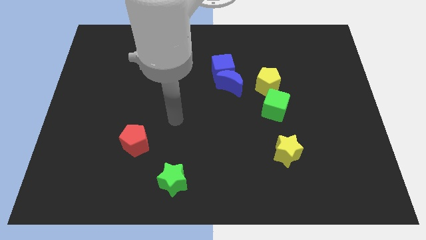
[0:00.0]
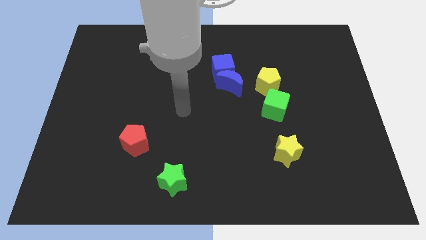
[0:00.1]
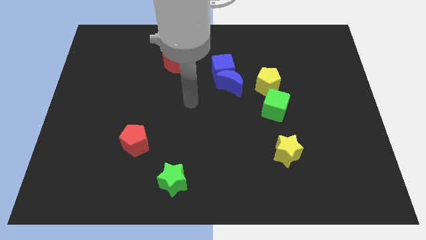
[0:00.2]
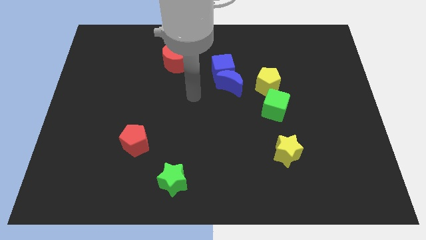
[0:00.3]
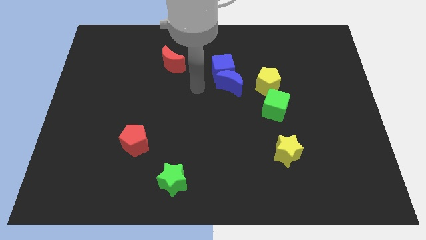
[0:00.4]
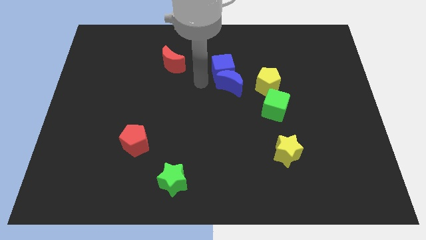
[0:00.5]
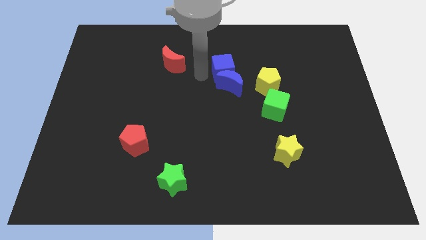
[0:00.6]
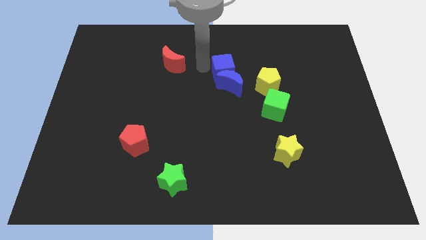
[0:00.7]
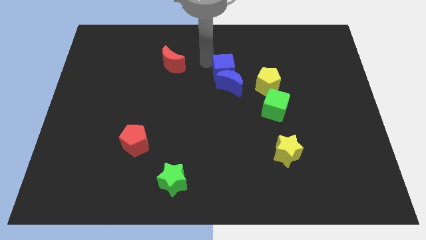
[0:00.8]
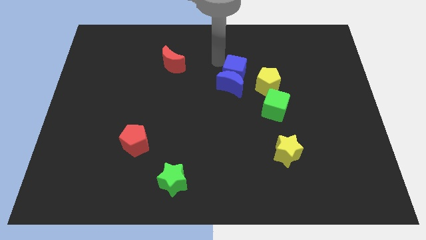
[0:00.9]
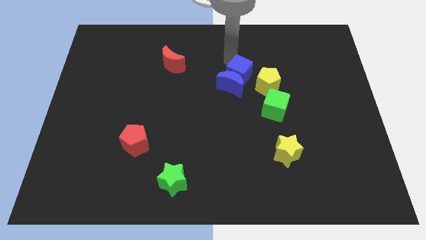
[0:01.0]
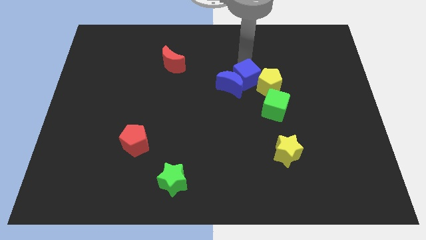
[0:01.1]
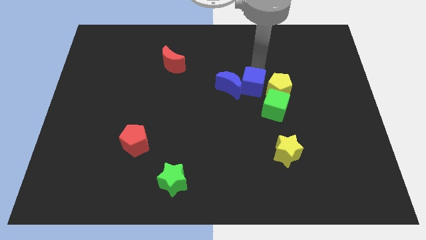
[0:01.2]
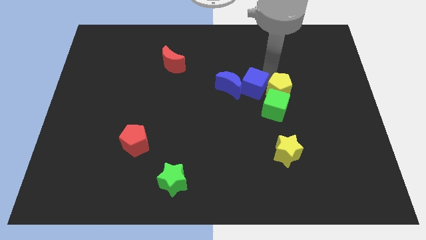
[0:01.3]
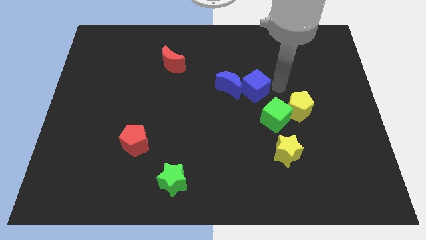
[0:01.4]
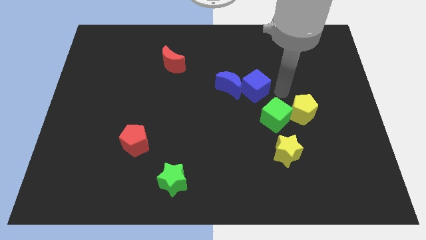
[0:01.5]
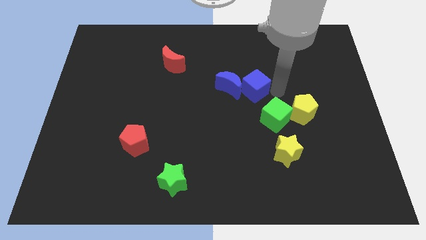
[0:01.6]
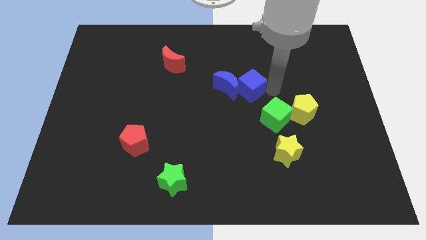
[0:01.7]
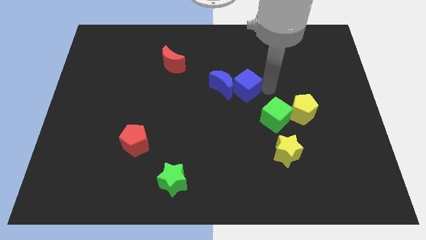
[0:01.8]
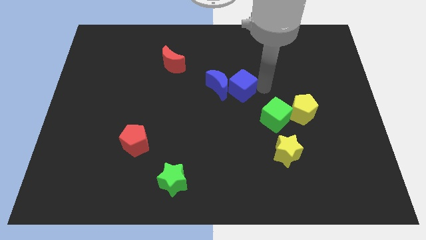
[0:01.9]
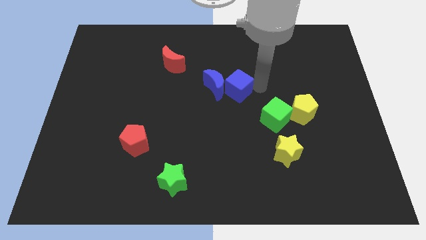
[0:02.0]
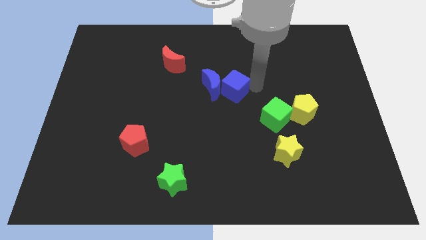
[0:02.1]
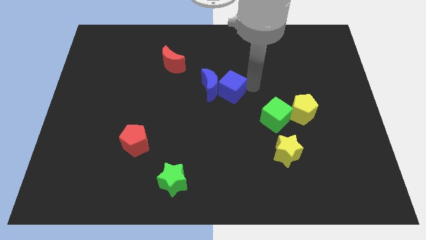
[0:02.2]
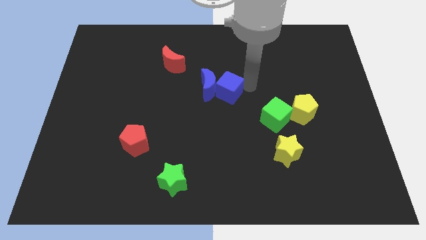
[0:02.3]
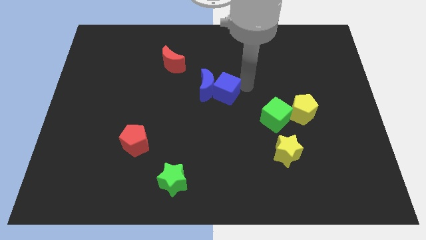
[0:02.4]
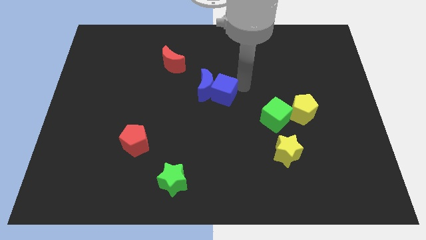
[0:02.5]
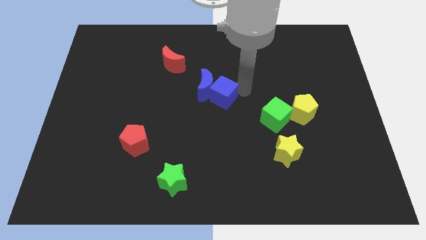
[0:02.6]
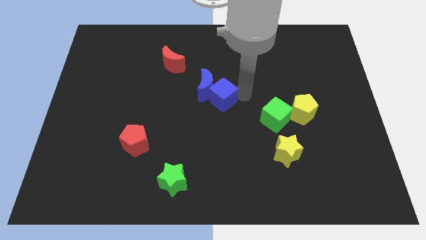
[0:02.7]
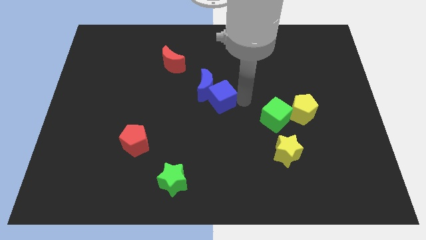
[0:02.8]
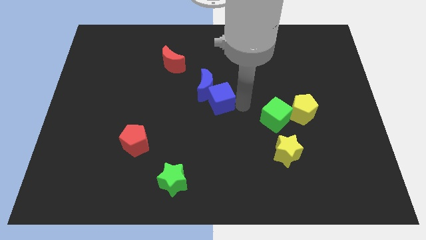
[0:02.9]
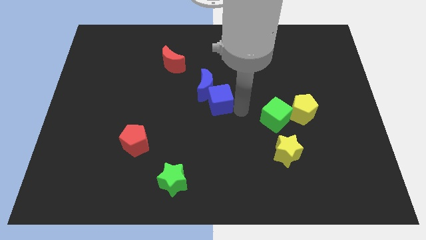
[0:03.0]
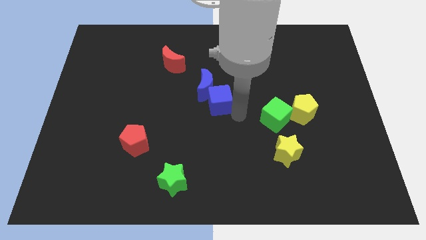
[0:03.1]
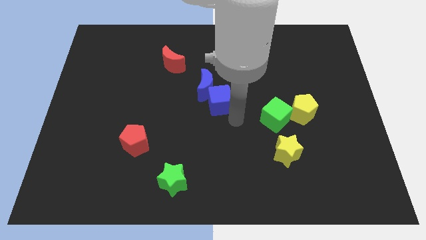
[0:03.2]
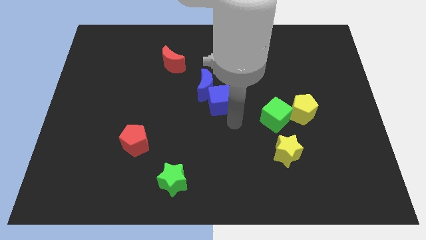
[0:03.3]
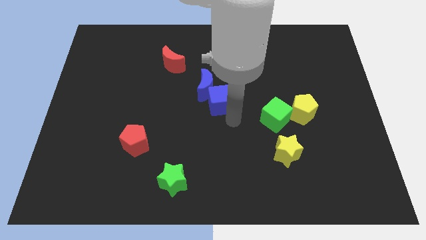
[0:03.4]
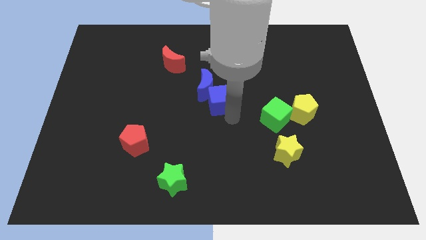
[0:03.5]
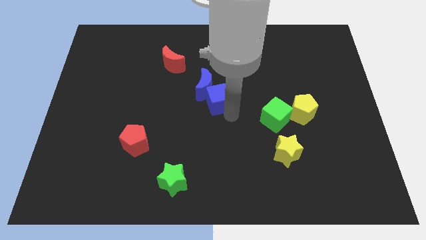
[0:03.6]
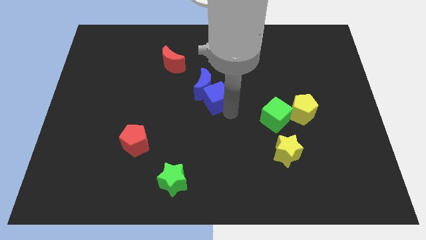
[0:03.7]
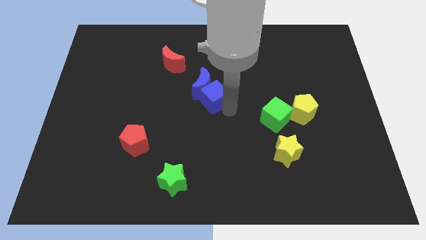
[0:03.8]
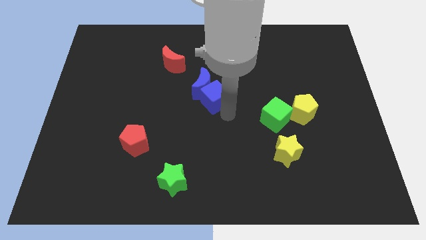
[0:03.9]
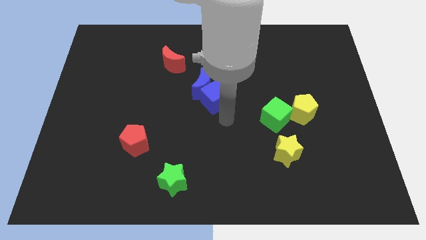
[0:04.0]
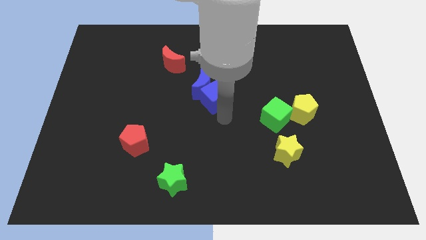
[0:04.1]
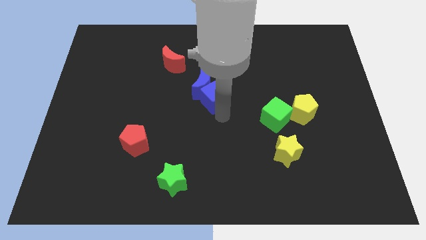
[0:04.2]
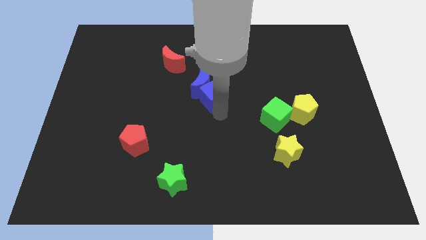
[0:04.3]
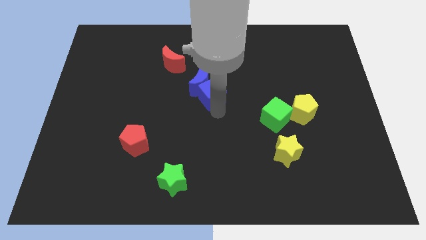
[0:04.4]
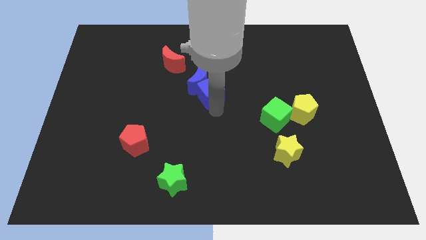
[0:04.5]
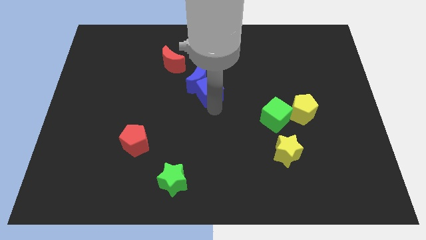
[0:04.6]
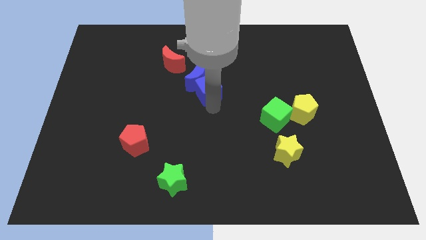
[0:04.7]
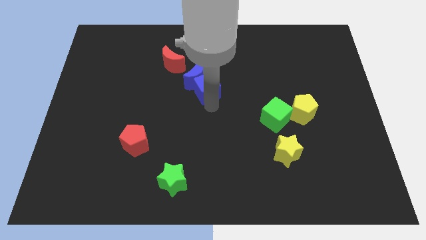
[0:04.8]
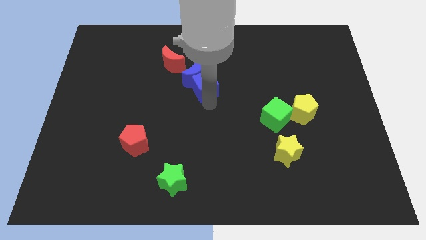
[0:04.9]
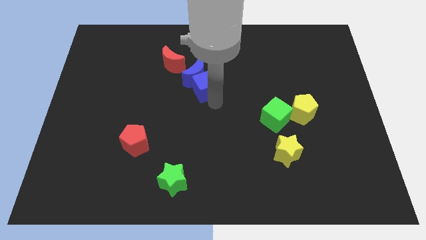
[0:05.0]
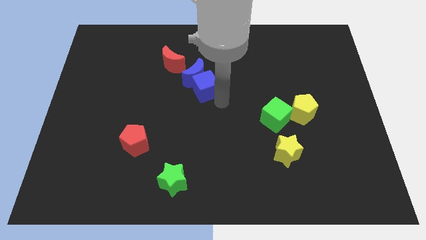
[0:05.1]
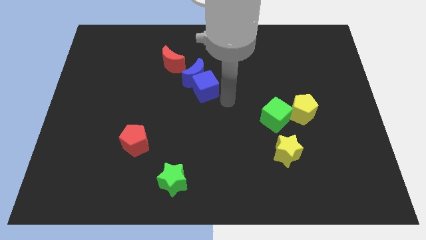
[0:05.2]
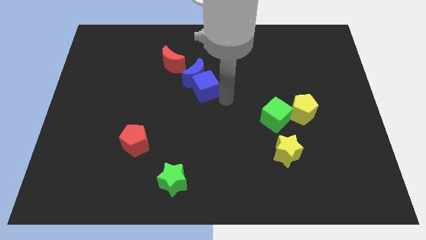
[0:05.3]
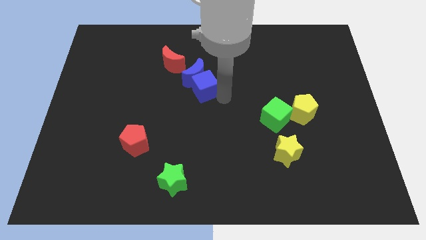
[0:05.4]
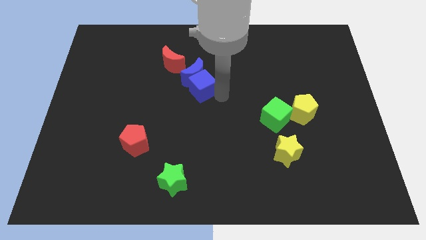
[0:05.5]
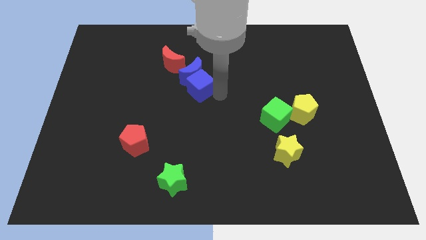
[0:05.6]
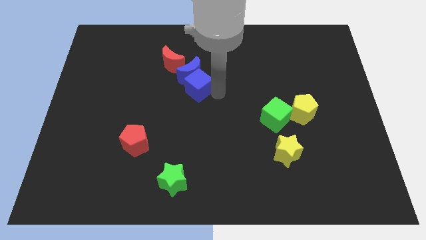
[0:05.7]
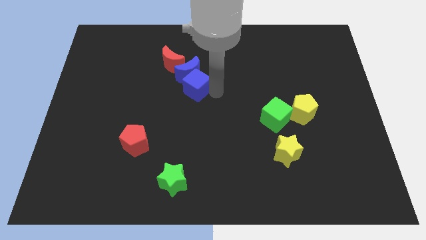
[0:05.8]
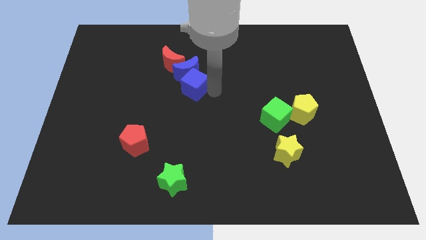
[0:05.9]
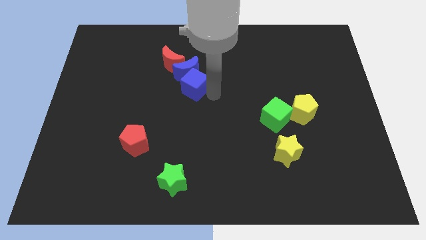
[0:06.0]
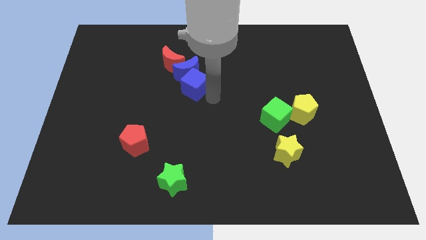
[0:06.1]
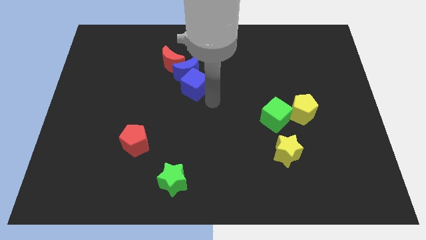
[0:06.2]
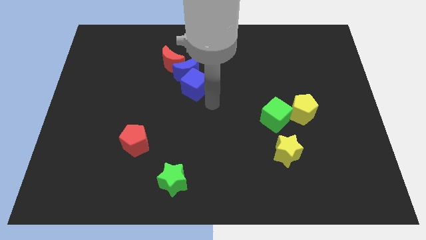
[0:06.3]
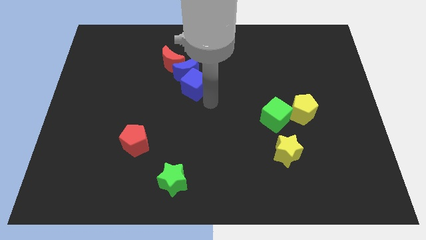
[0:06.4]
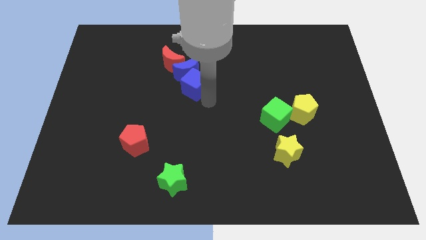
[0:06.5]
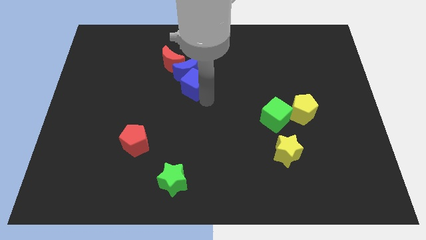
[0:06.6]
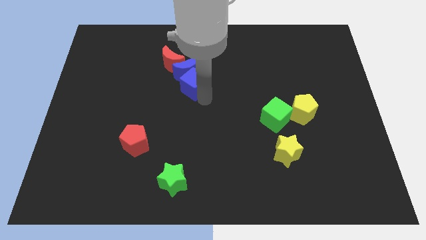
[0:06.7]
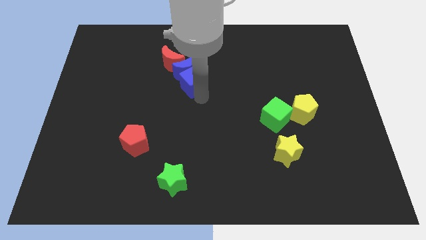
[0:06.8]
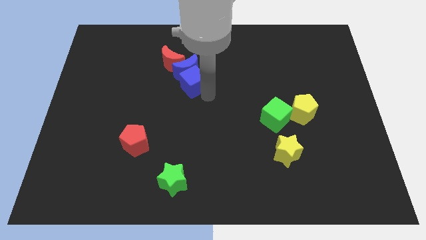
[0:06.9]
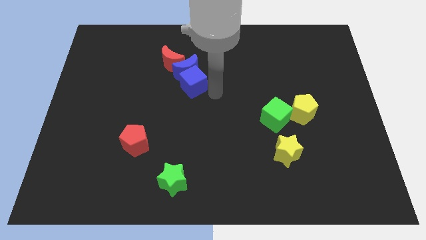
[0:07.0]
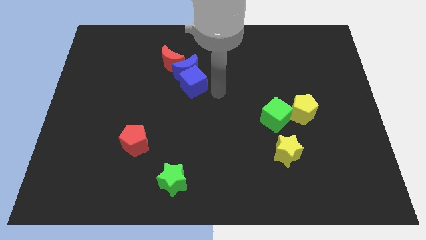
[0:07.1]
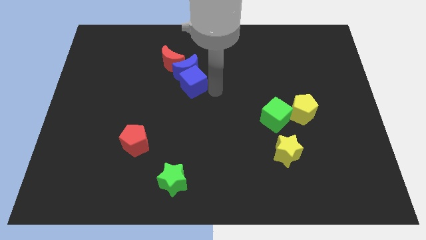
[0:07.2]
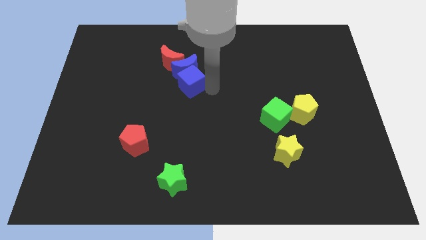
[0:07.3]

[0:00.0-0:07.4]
slightly slide the blue cube to the left

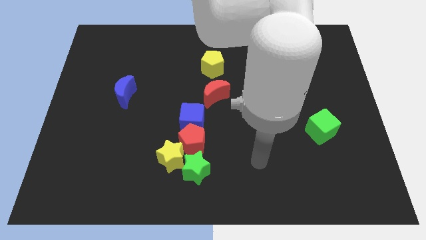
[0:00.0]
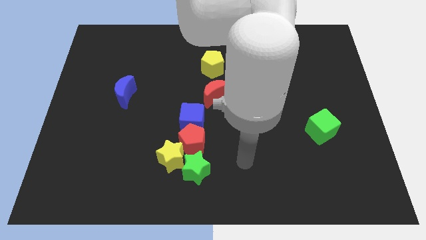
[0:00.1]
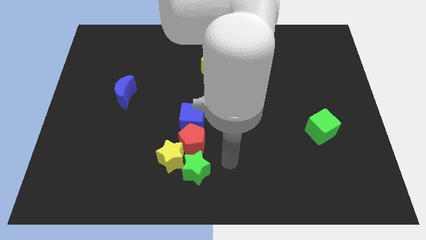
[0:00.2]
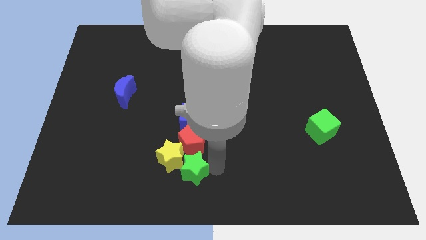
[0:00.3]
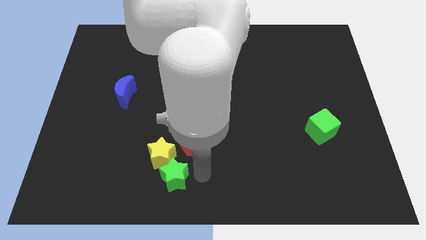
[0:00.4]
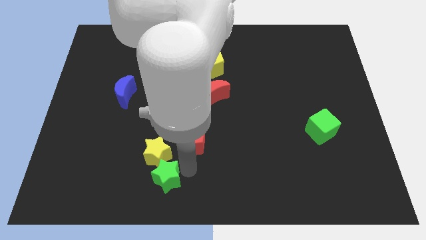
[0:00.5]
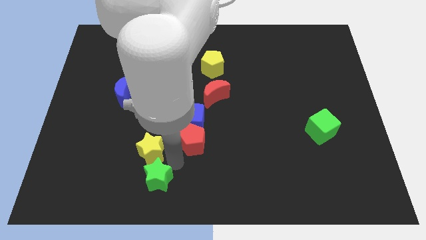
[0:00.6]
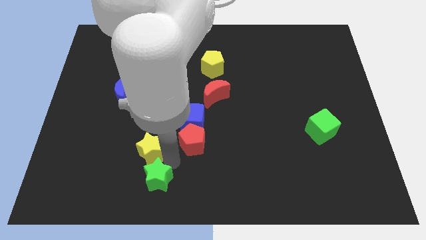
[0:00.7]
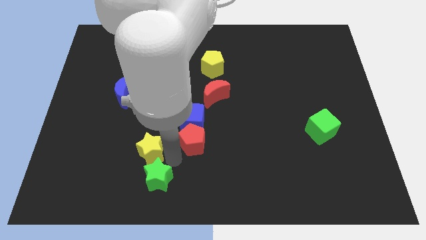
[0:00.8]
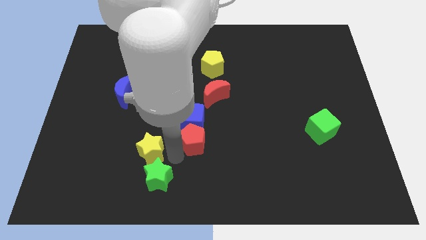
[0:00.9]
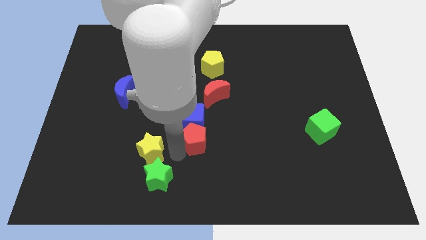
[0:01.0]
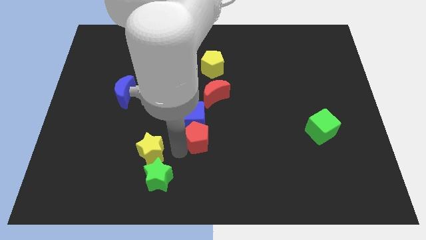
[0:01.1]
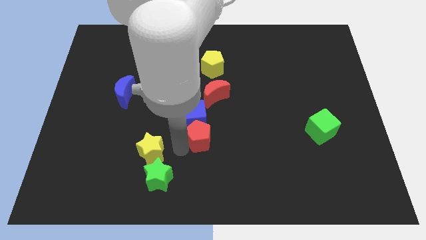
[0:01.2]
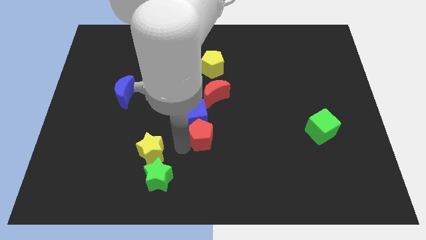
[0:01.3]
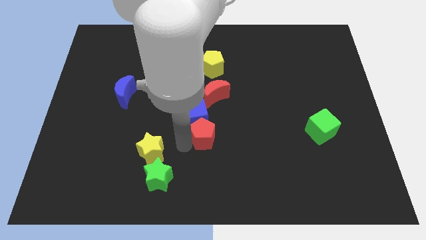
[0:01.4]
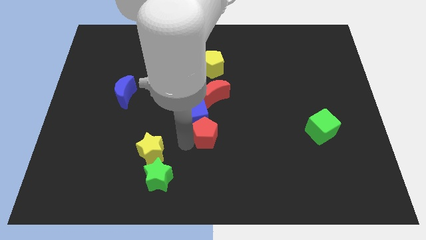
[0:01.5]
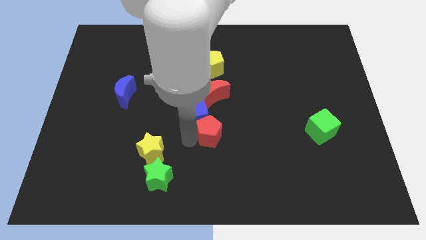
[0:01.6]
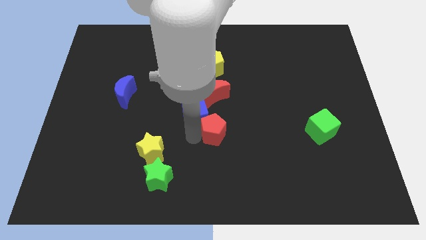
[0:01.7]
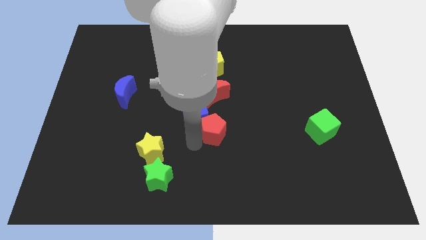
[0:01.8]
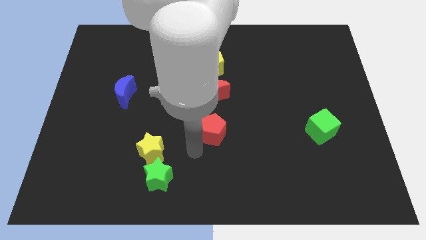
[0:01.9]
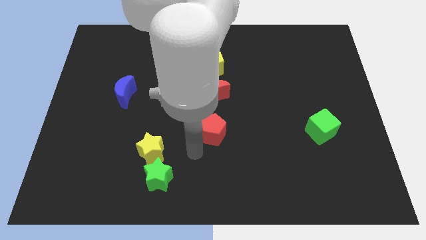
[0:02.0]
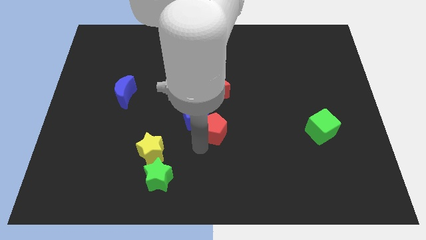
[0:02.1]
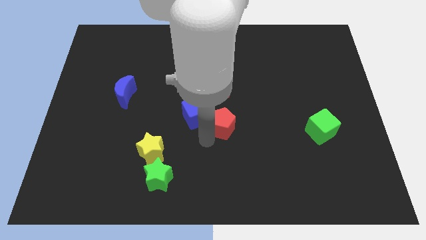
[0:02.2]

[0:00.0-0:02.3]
slightly move the red pentagon upwards and right diagonally
